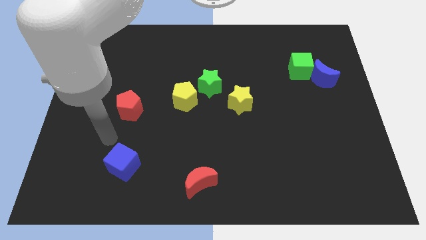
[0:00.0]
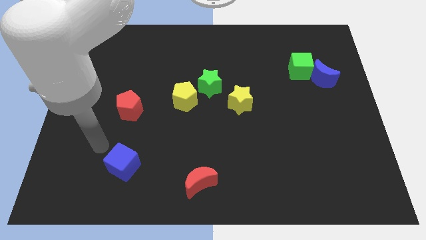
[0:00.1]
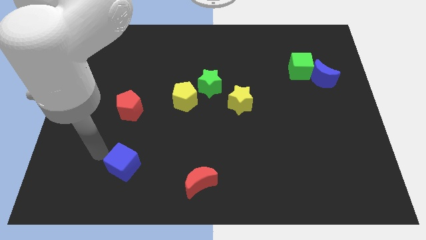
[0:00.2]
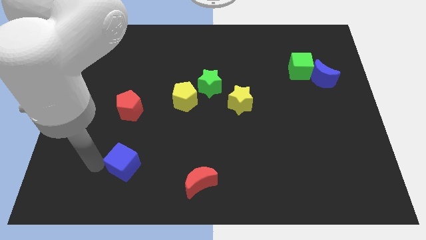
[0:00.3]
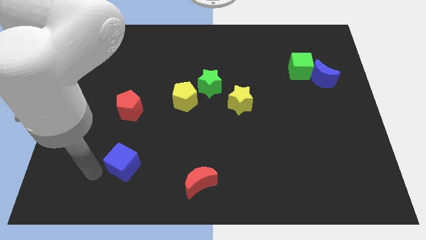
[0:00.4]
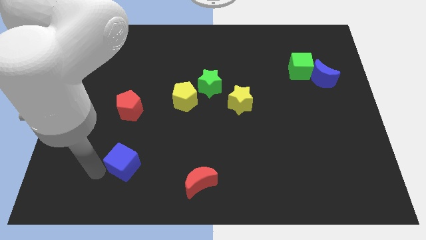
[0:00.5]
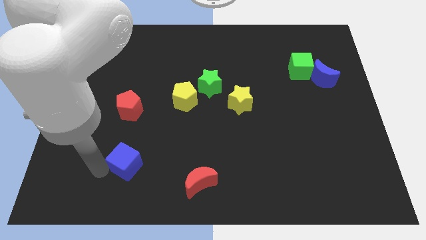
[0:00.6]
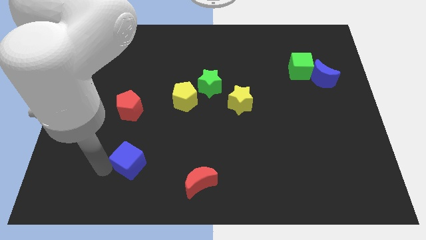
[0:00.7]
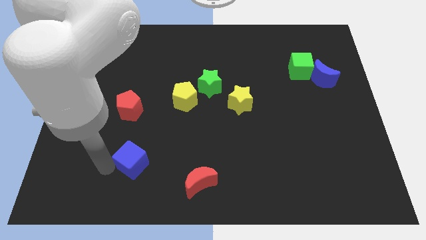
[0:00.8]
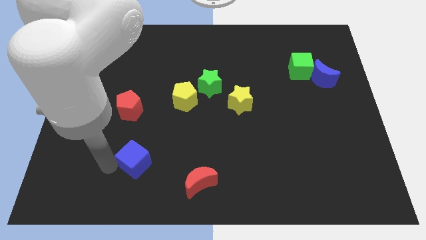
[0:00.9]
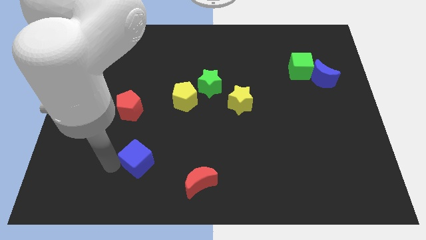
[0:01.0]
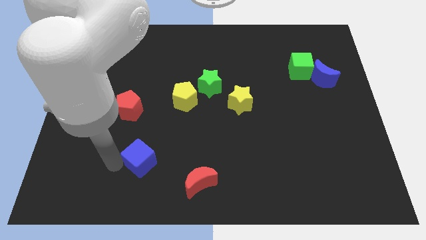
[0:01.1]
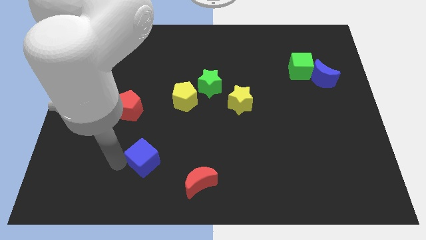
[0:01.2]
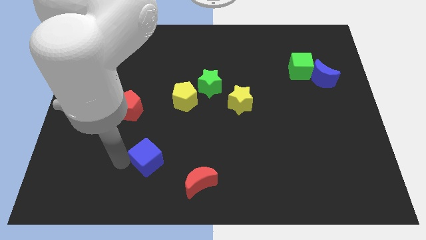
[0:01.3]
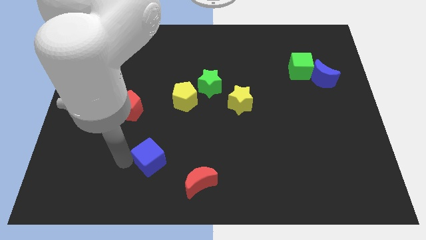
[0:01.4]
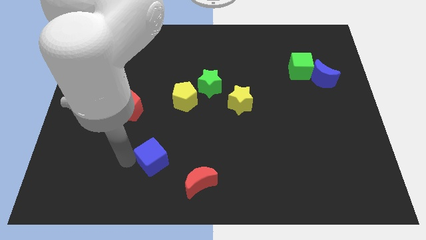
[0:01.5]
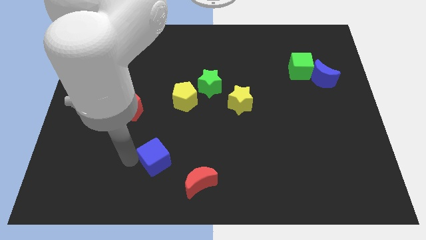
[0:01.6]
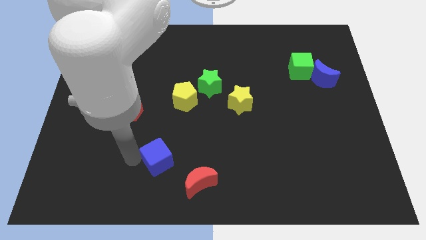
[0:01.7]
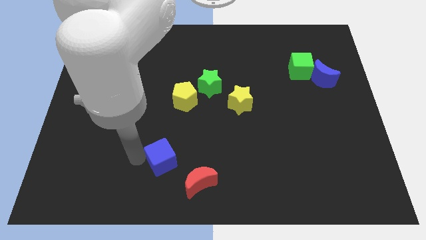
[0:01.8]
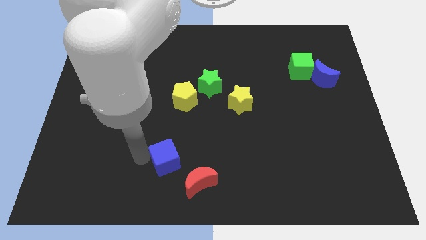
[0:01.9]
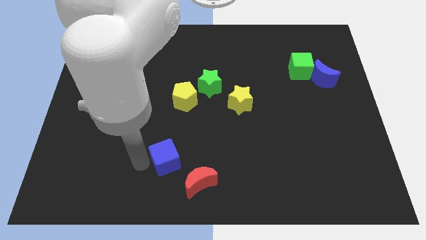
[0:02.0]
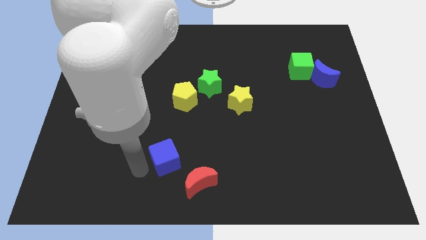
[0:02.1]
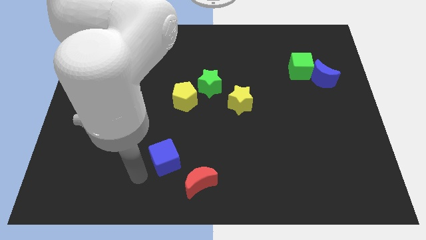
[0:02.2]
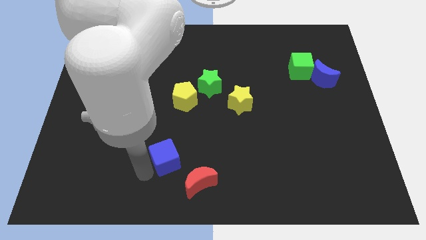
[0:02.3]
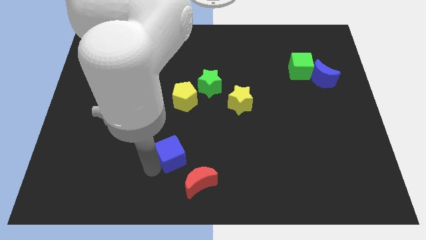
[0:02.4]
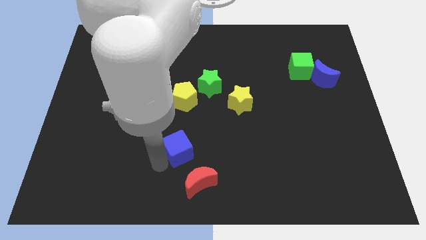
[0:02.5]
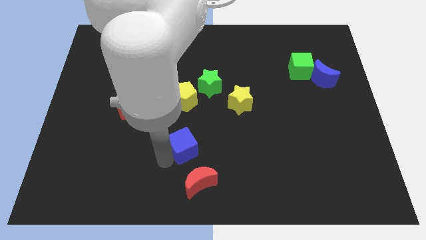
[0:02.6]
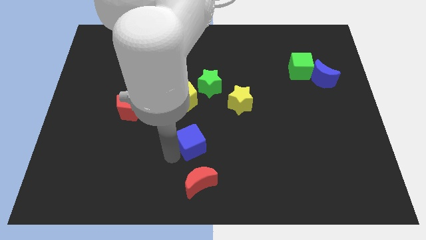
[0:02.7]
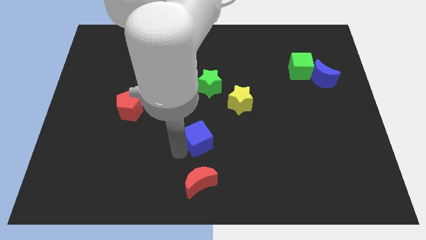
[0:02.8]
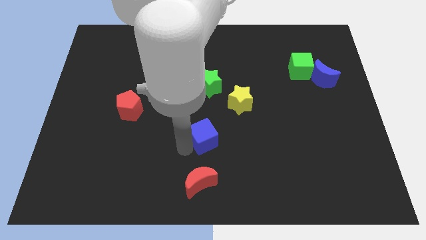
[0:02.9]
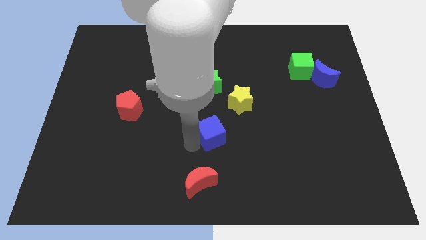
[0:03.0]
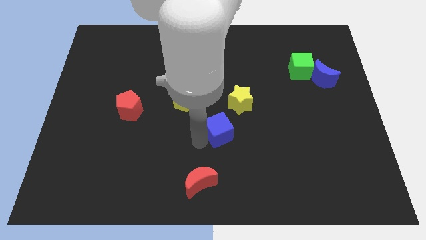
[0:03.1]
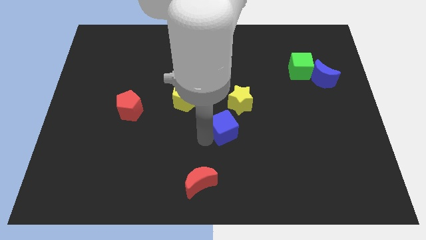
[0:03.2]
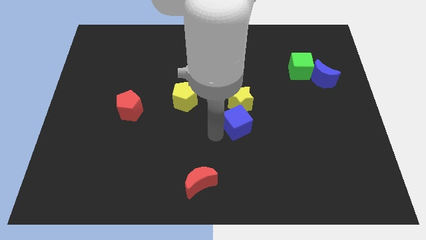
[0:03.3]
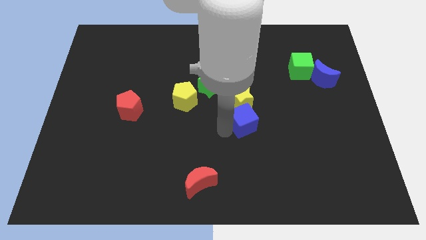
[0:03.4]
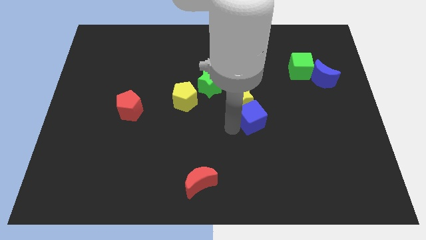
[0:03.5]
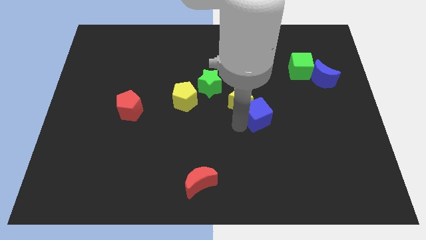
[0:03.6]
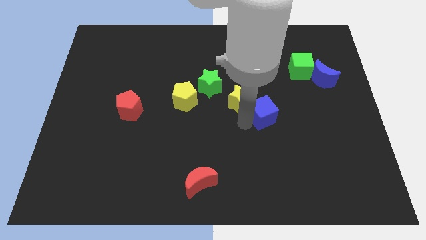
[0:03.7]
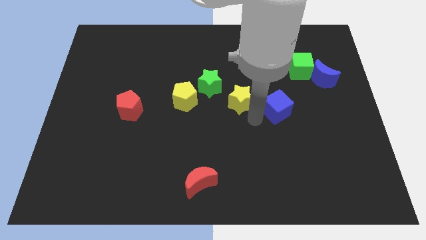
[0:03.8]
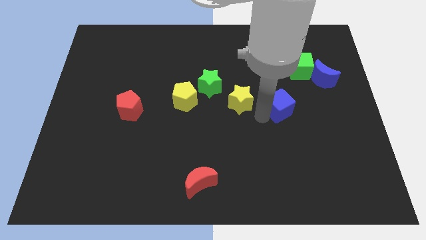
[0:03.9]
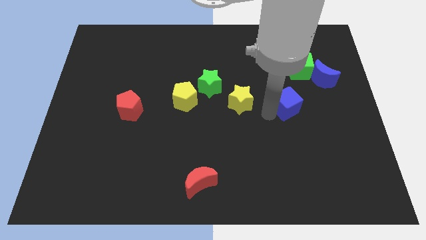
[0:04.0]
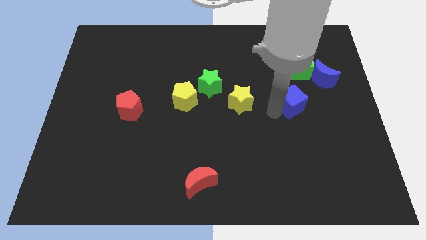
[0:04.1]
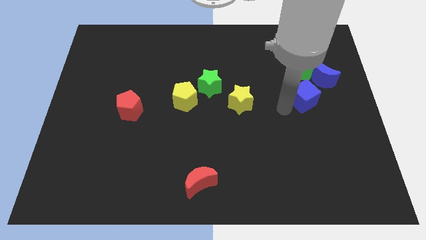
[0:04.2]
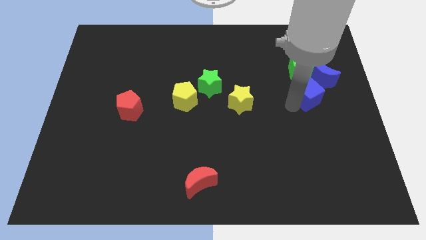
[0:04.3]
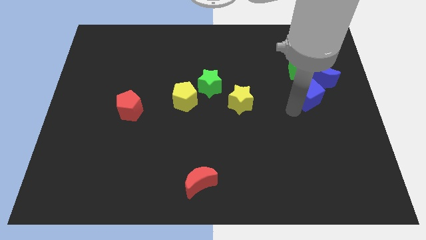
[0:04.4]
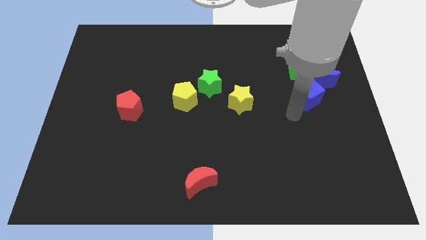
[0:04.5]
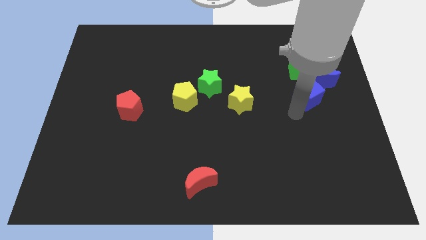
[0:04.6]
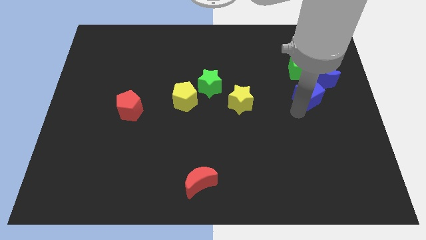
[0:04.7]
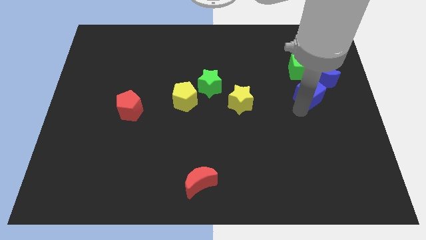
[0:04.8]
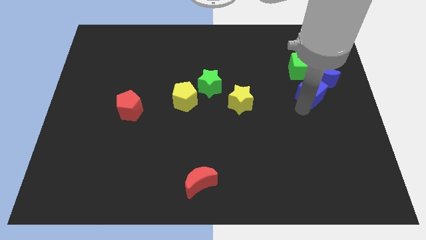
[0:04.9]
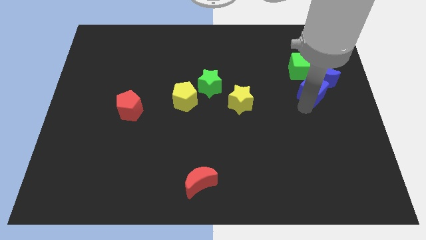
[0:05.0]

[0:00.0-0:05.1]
slide the blue cube to the blue moon

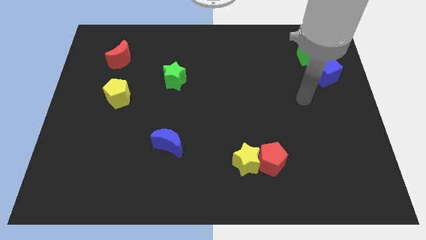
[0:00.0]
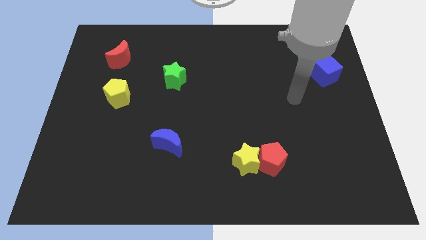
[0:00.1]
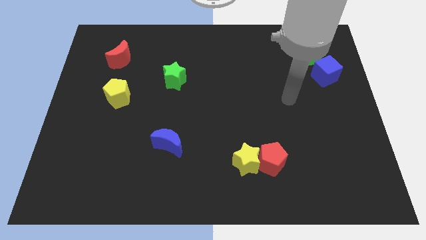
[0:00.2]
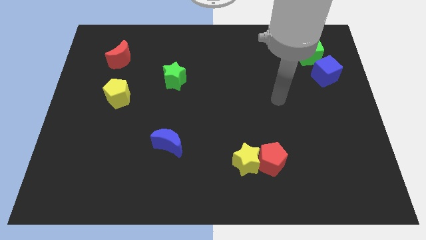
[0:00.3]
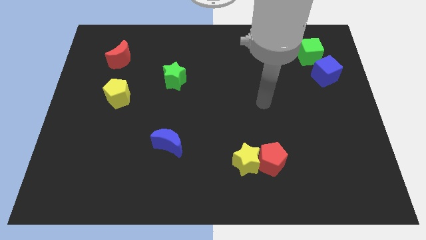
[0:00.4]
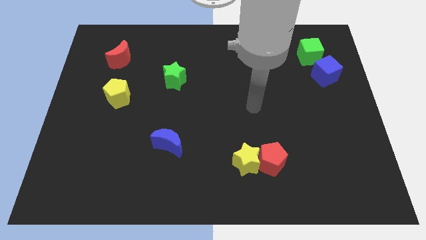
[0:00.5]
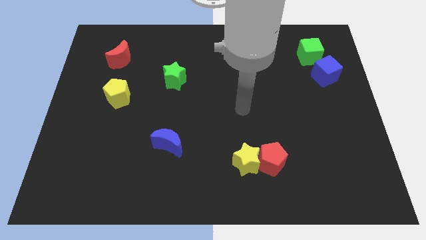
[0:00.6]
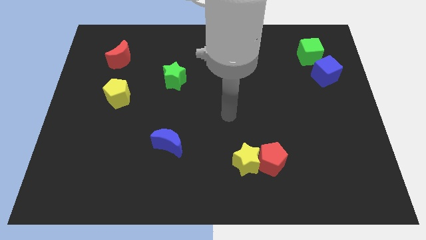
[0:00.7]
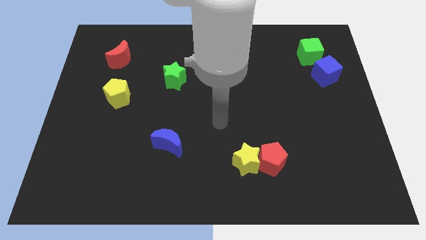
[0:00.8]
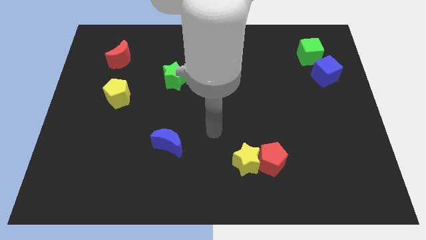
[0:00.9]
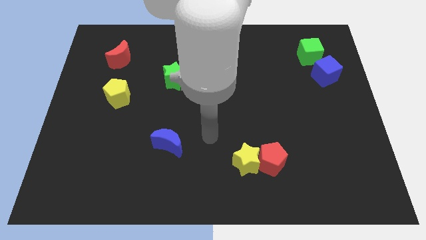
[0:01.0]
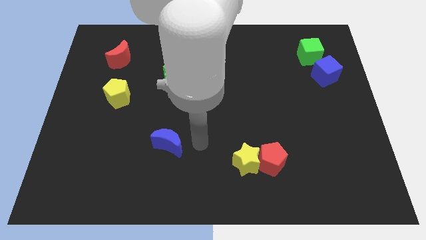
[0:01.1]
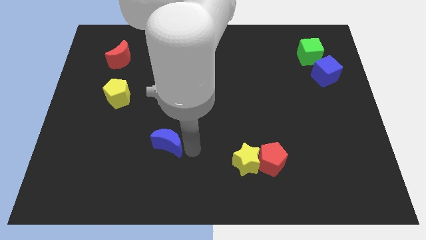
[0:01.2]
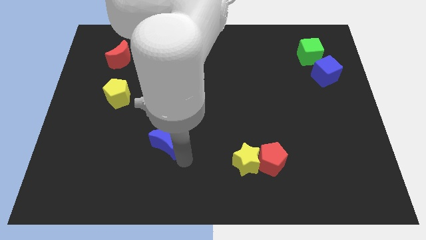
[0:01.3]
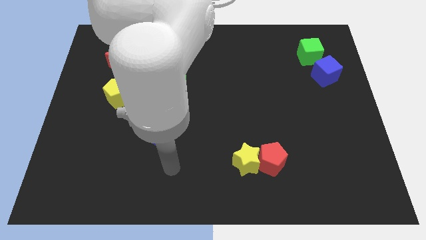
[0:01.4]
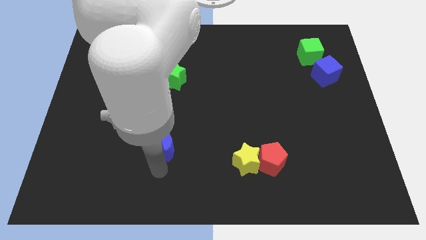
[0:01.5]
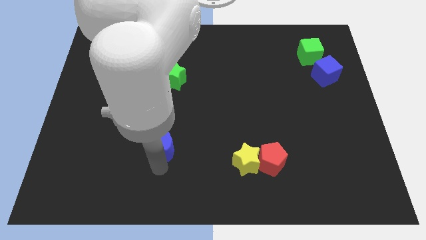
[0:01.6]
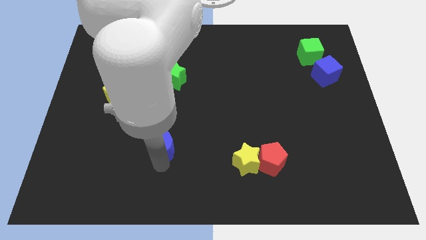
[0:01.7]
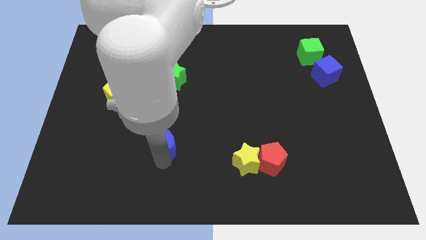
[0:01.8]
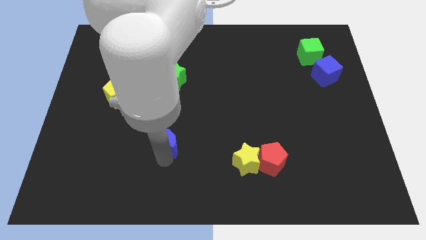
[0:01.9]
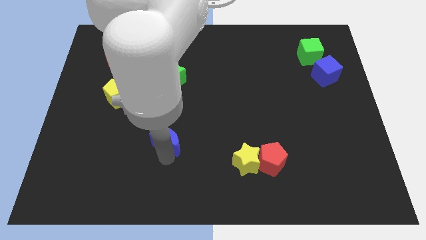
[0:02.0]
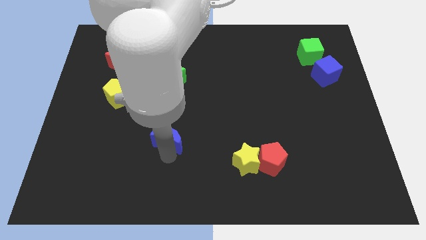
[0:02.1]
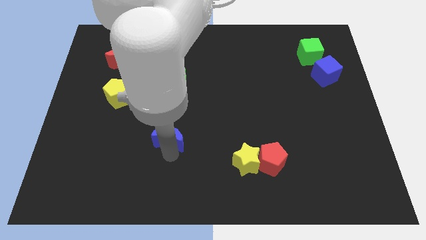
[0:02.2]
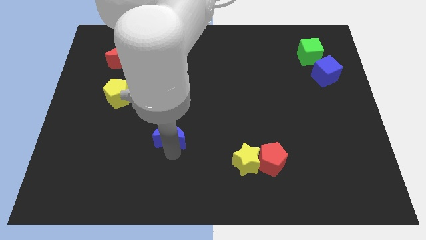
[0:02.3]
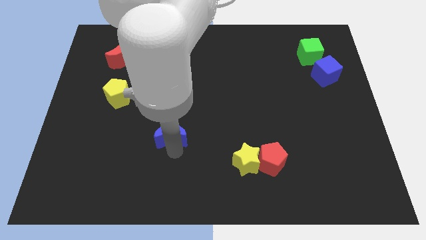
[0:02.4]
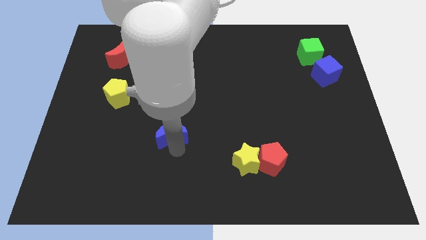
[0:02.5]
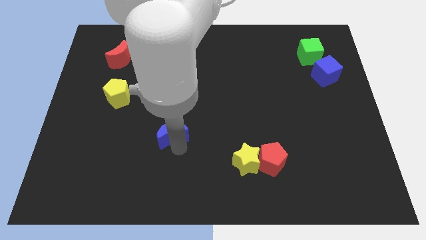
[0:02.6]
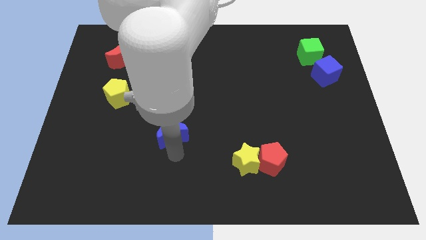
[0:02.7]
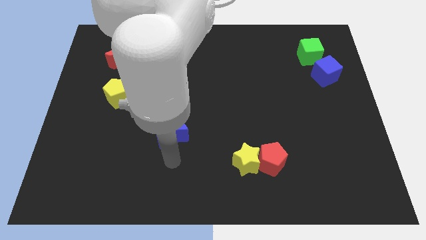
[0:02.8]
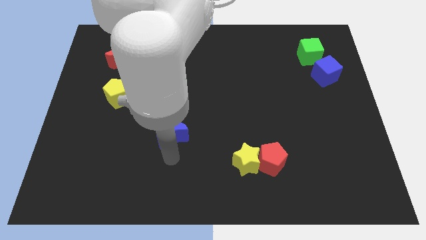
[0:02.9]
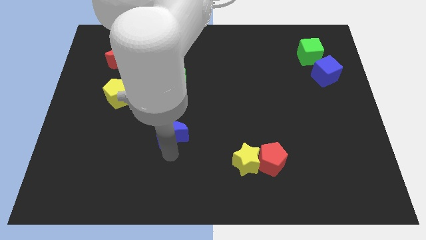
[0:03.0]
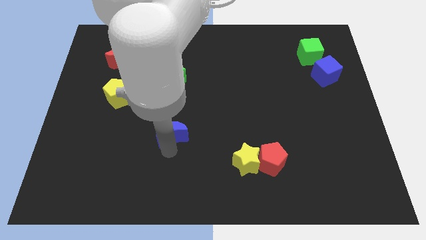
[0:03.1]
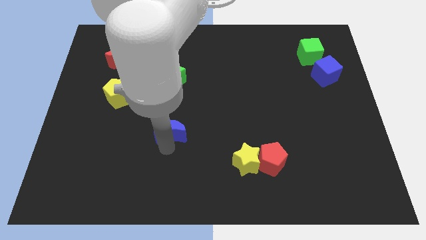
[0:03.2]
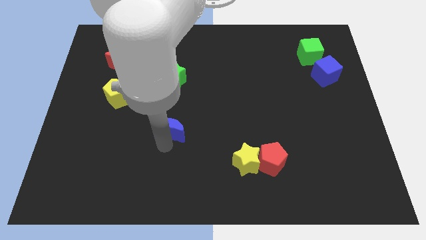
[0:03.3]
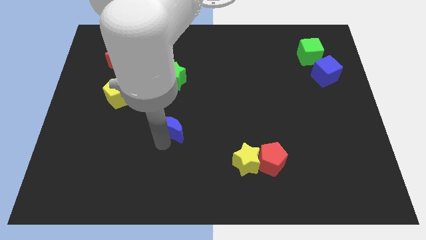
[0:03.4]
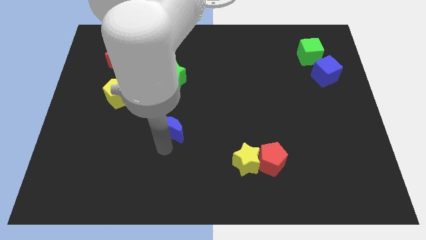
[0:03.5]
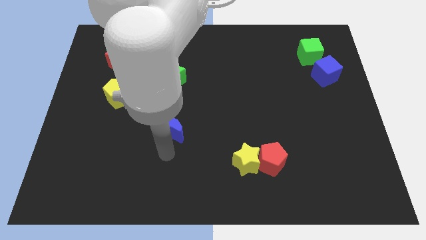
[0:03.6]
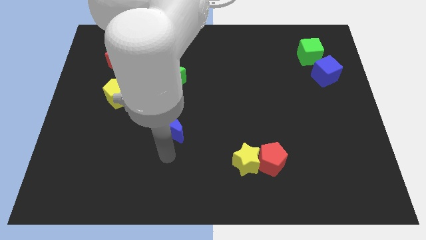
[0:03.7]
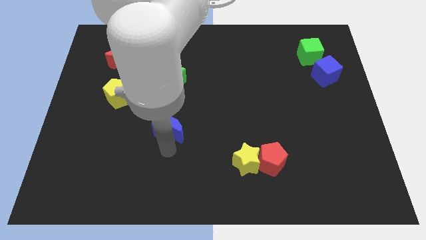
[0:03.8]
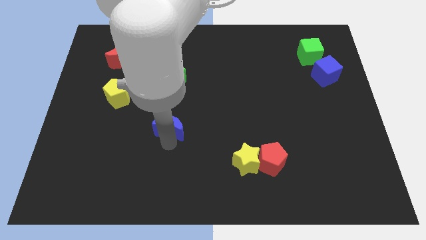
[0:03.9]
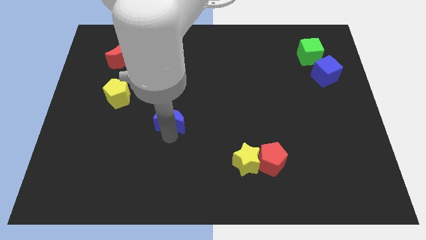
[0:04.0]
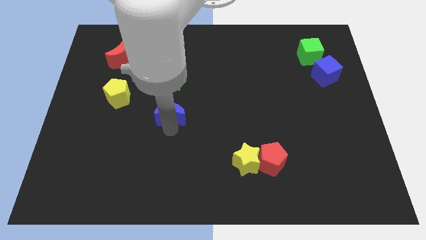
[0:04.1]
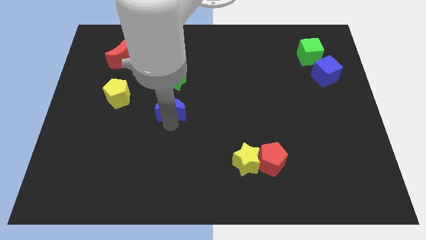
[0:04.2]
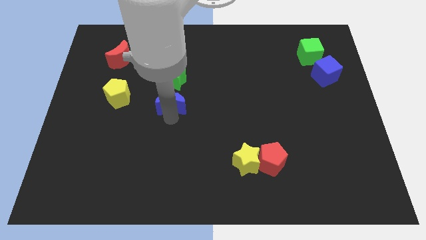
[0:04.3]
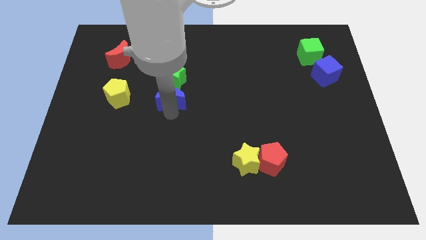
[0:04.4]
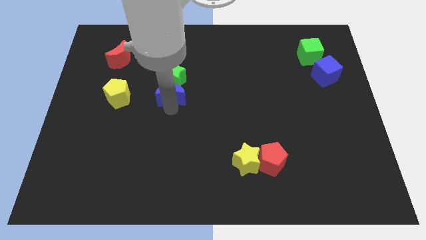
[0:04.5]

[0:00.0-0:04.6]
move the blue moon towards the green star
